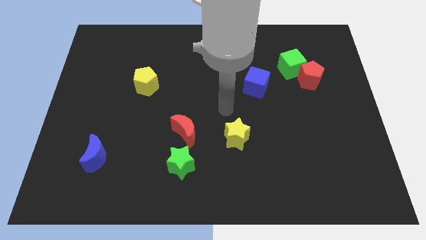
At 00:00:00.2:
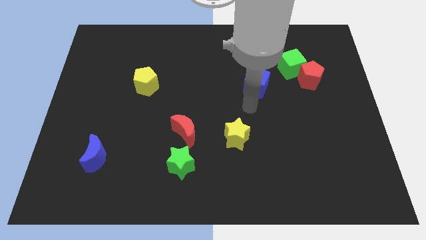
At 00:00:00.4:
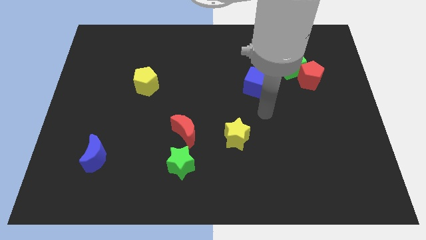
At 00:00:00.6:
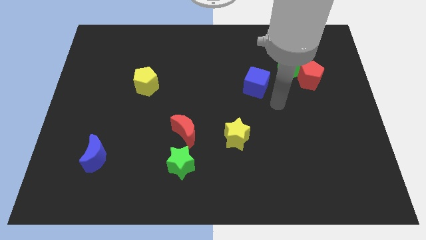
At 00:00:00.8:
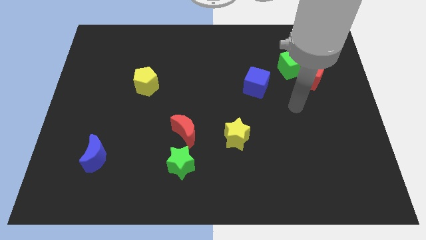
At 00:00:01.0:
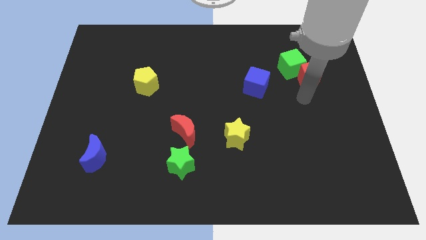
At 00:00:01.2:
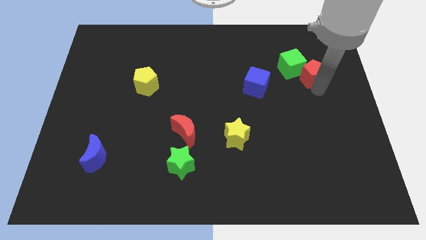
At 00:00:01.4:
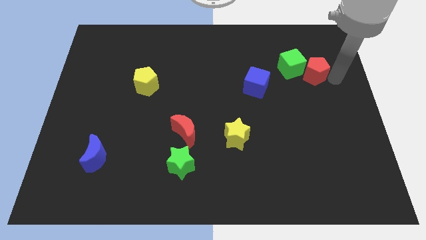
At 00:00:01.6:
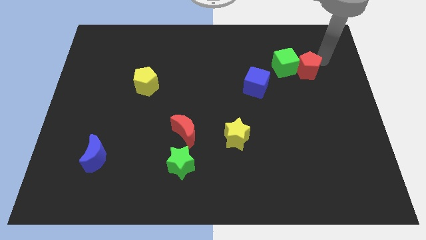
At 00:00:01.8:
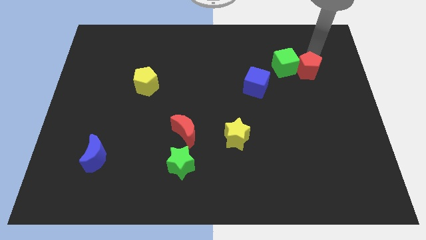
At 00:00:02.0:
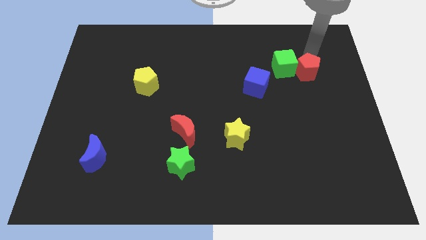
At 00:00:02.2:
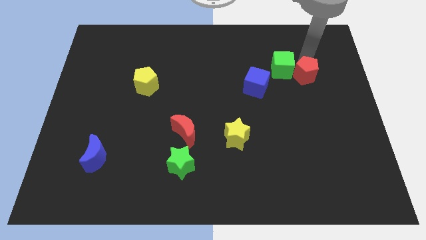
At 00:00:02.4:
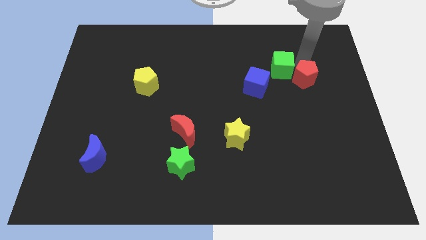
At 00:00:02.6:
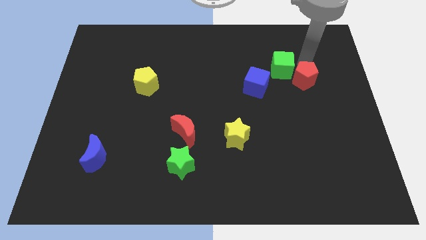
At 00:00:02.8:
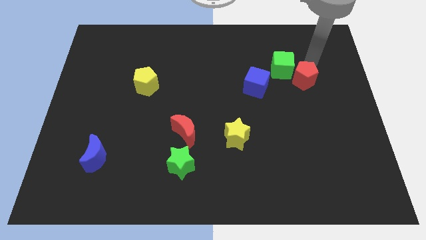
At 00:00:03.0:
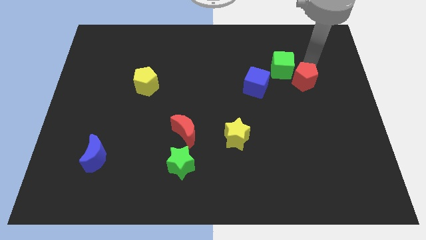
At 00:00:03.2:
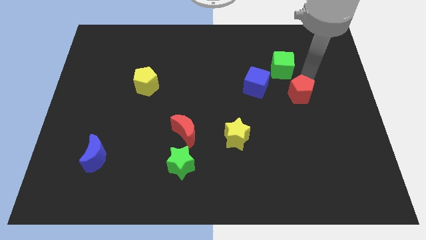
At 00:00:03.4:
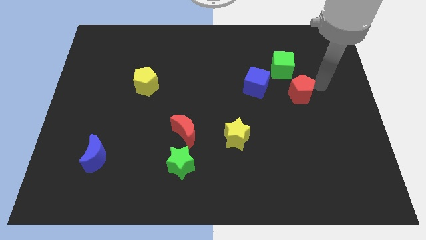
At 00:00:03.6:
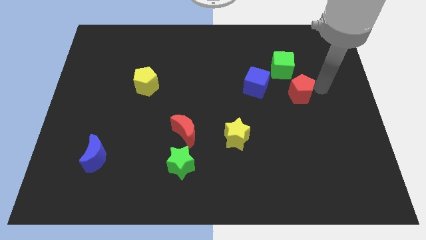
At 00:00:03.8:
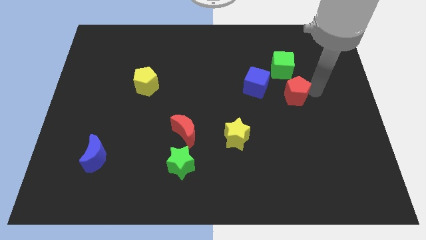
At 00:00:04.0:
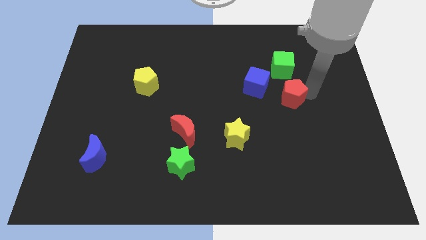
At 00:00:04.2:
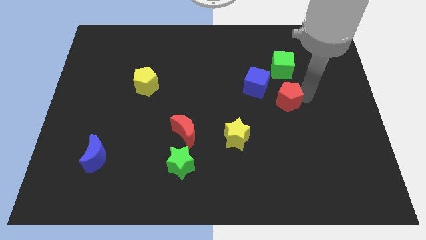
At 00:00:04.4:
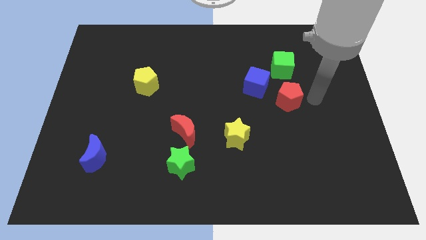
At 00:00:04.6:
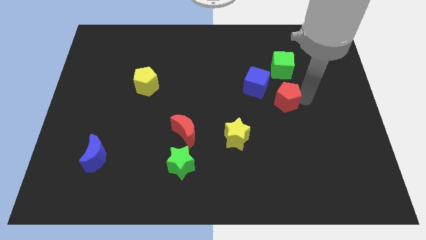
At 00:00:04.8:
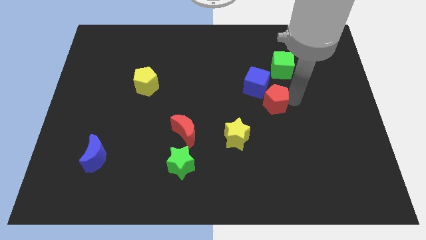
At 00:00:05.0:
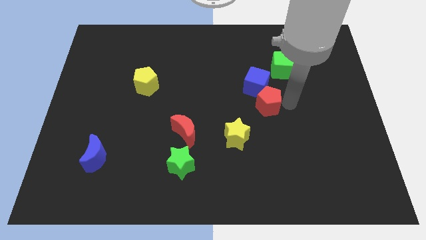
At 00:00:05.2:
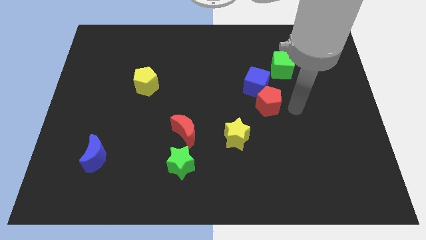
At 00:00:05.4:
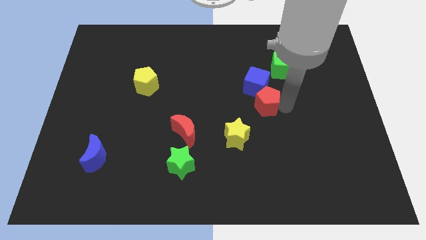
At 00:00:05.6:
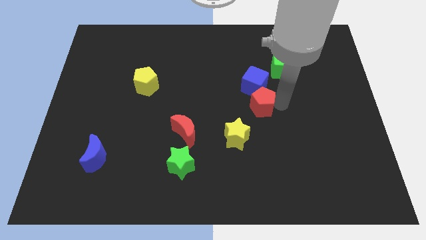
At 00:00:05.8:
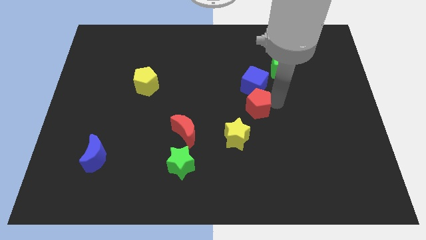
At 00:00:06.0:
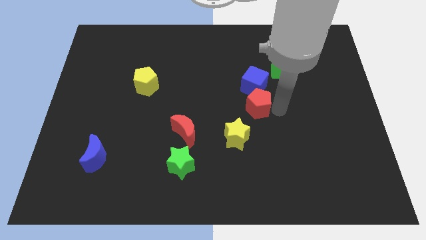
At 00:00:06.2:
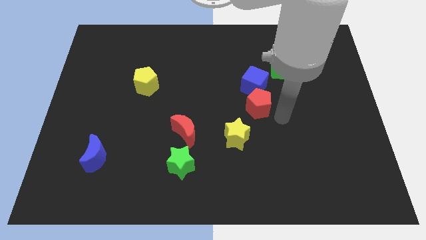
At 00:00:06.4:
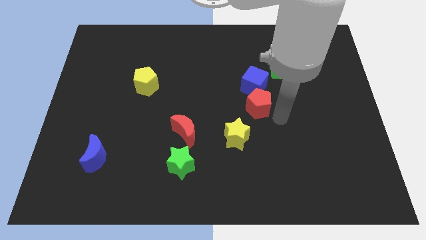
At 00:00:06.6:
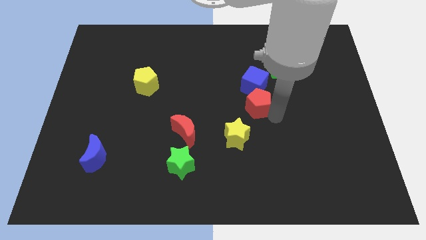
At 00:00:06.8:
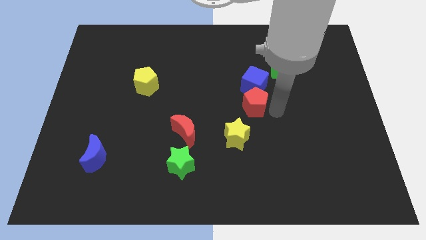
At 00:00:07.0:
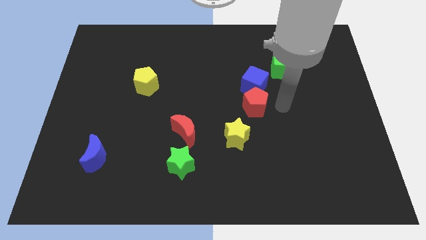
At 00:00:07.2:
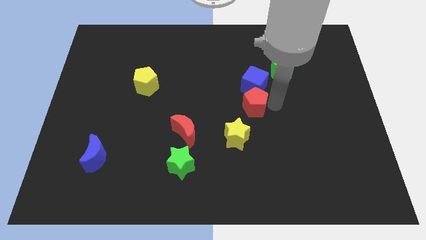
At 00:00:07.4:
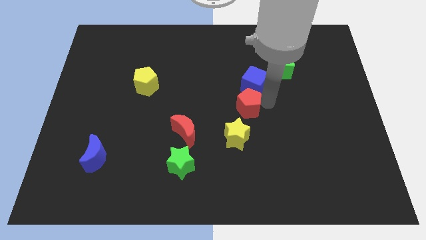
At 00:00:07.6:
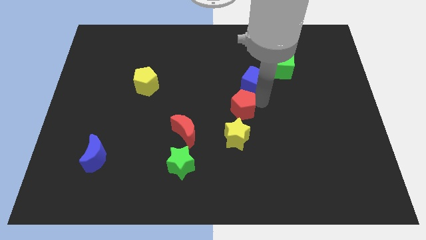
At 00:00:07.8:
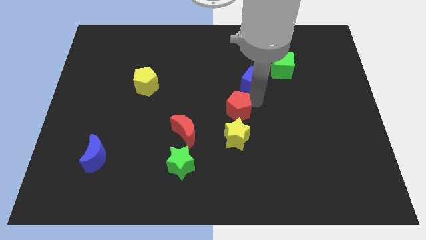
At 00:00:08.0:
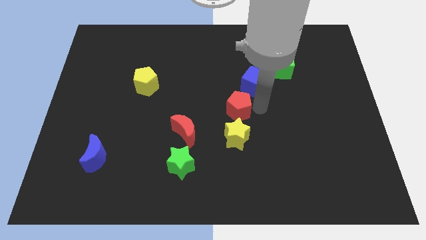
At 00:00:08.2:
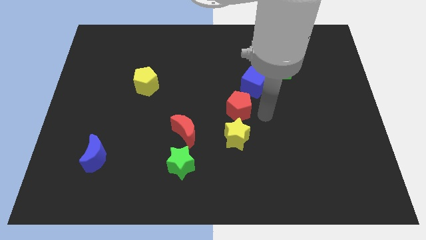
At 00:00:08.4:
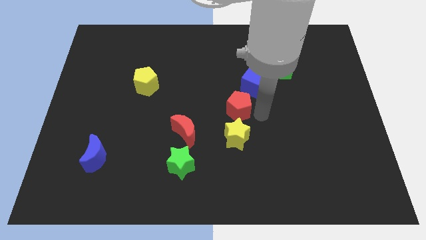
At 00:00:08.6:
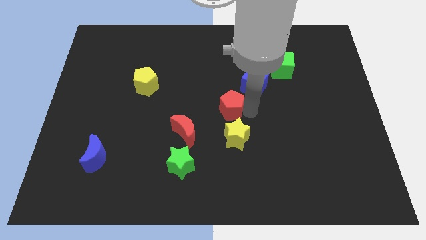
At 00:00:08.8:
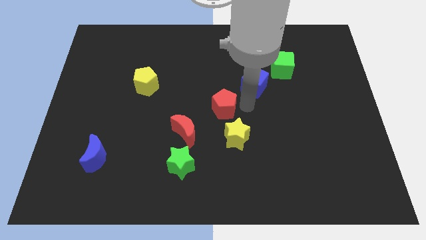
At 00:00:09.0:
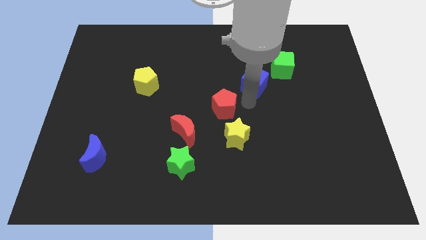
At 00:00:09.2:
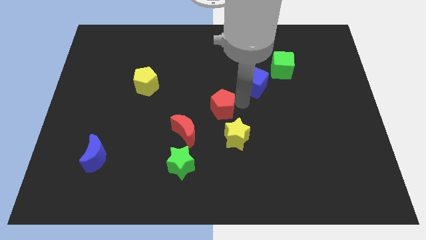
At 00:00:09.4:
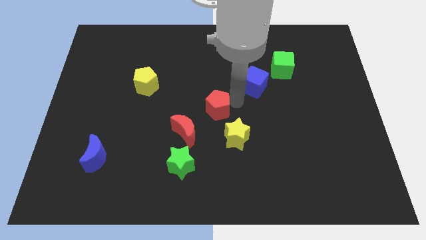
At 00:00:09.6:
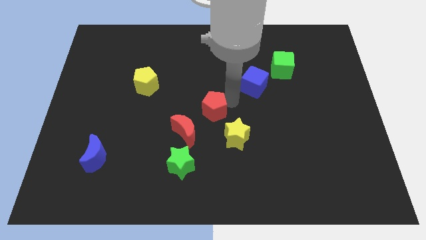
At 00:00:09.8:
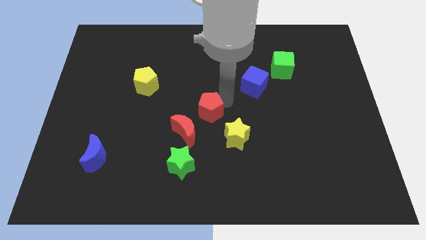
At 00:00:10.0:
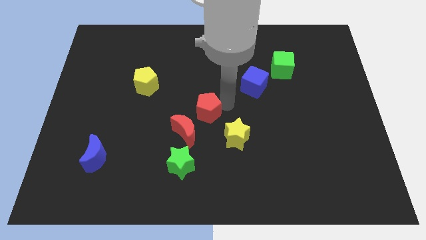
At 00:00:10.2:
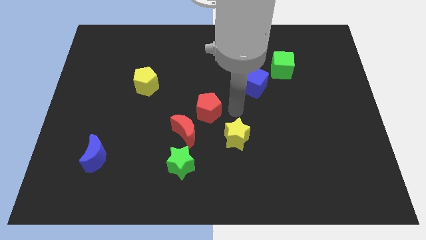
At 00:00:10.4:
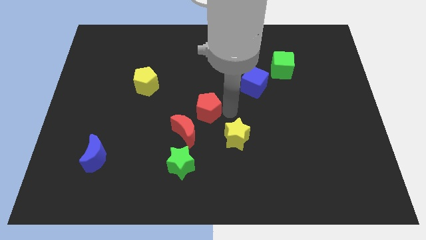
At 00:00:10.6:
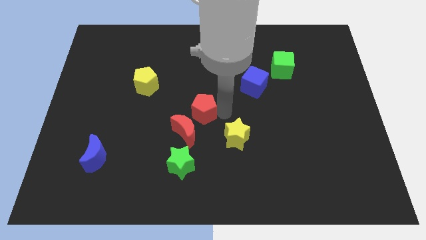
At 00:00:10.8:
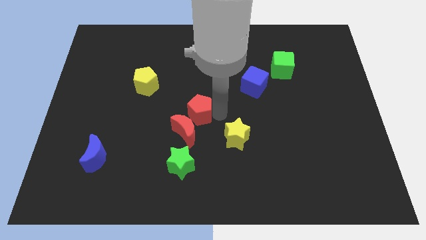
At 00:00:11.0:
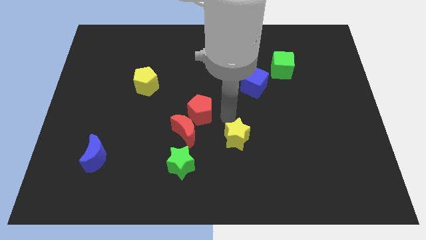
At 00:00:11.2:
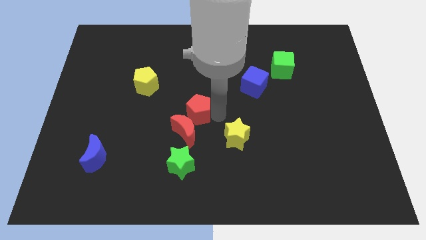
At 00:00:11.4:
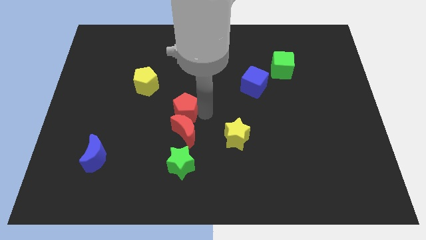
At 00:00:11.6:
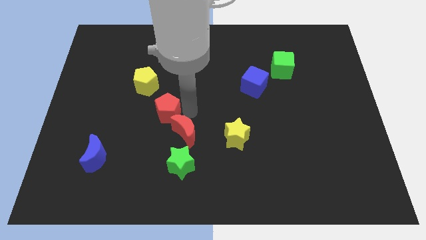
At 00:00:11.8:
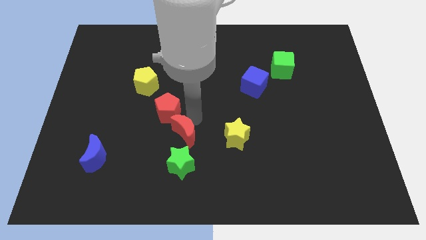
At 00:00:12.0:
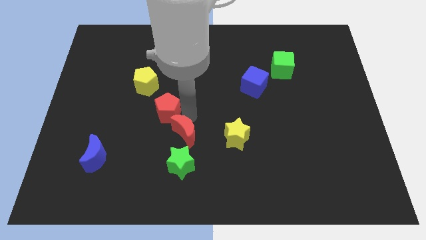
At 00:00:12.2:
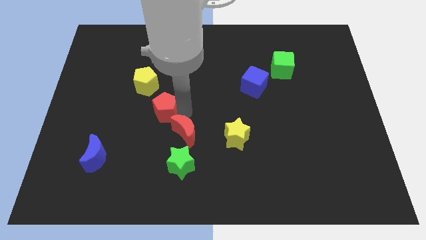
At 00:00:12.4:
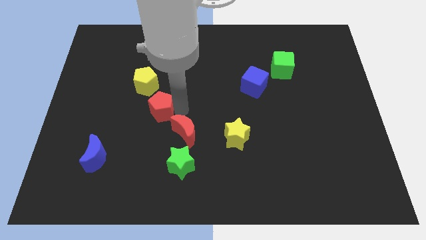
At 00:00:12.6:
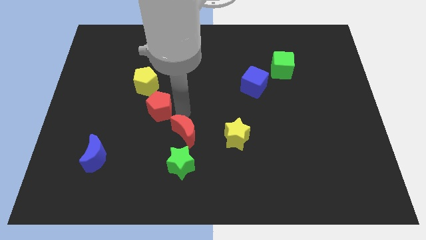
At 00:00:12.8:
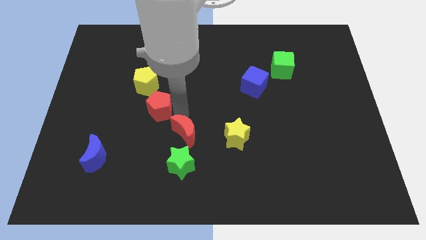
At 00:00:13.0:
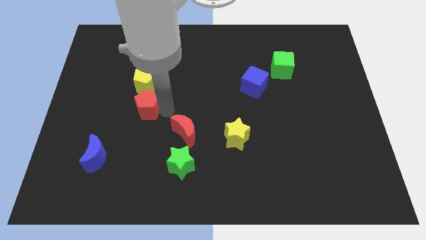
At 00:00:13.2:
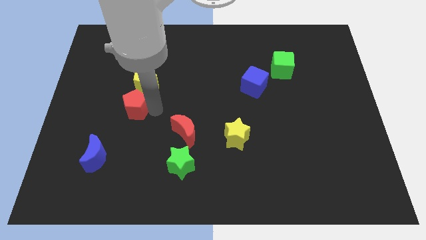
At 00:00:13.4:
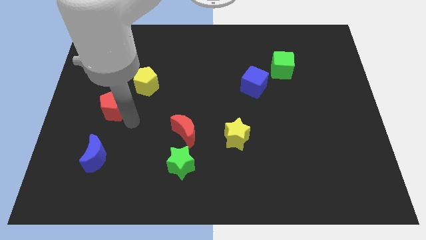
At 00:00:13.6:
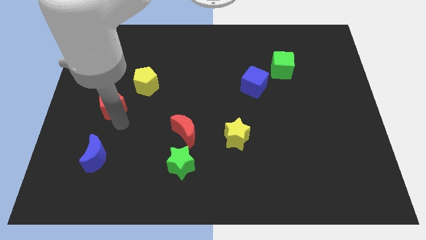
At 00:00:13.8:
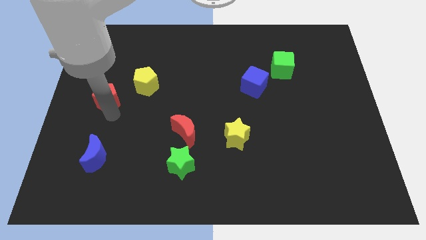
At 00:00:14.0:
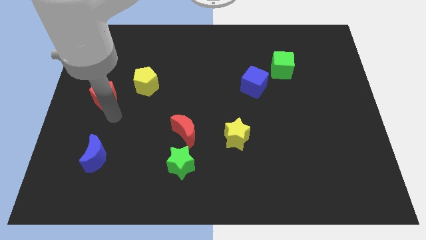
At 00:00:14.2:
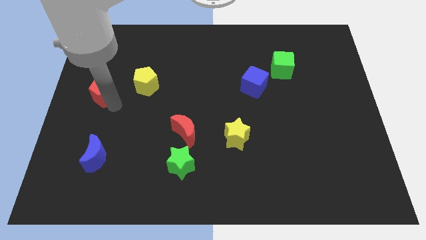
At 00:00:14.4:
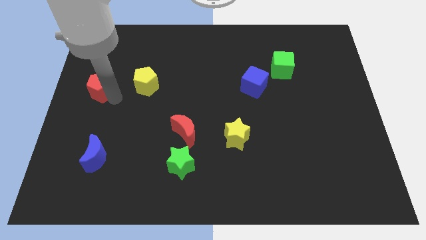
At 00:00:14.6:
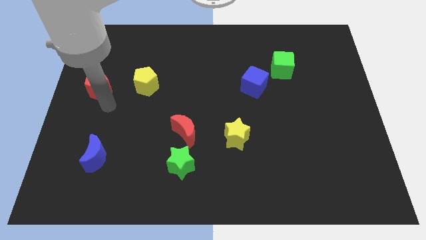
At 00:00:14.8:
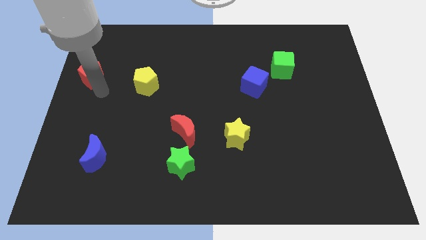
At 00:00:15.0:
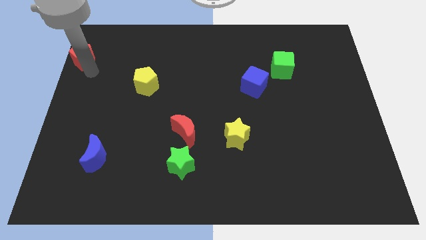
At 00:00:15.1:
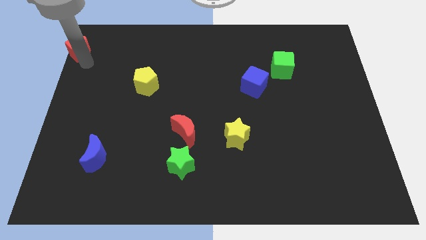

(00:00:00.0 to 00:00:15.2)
push the red pentagon to the top left of the board
